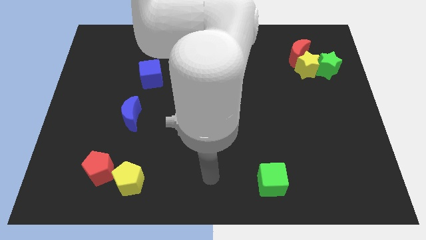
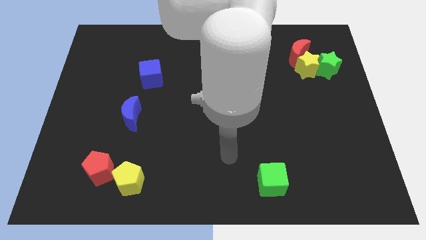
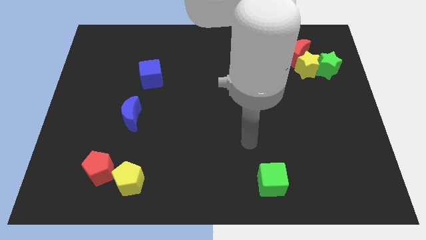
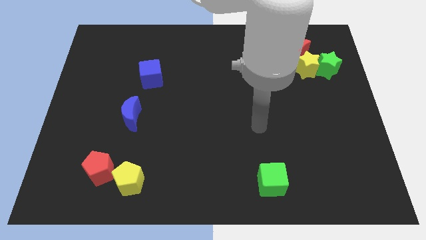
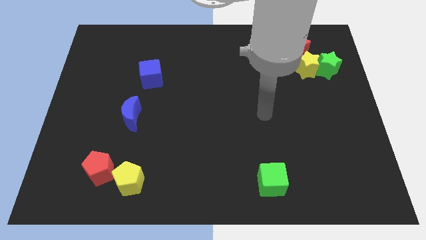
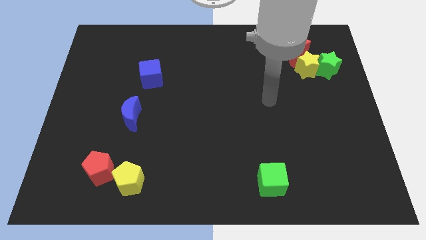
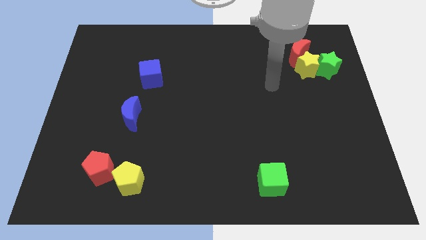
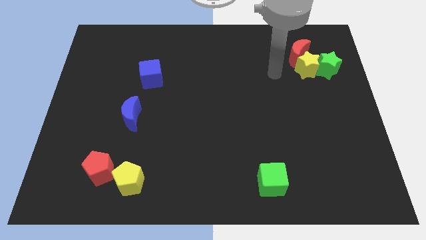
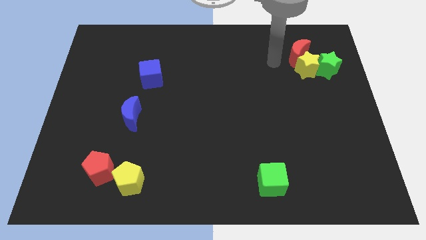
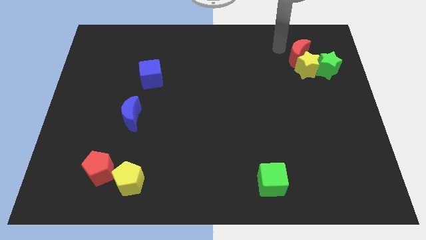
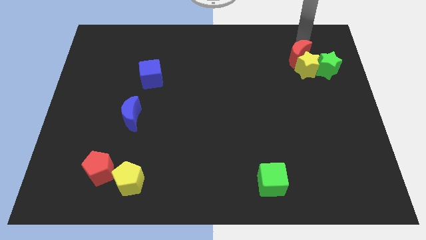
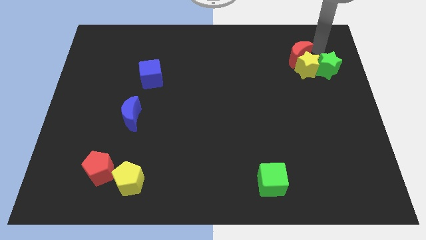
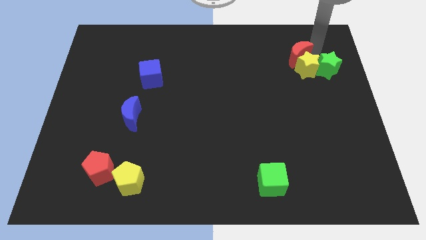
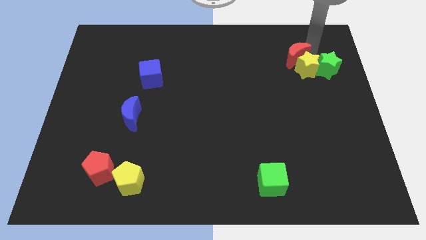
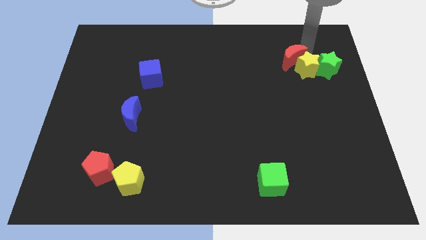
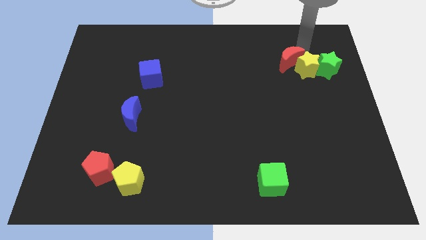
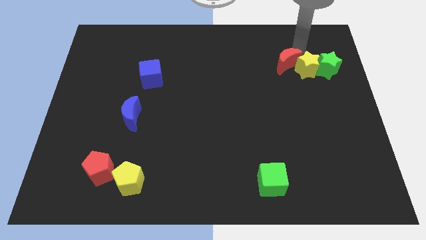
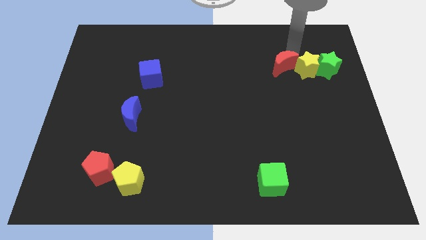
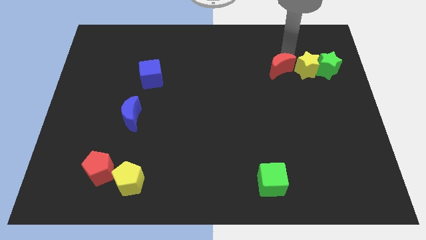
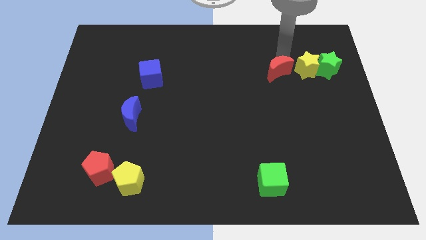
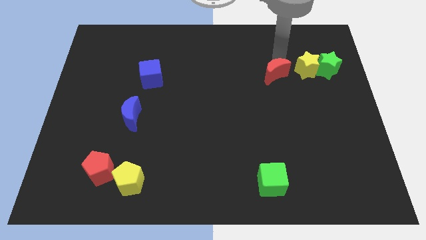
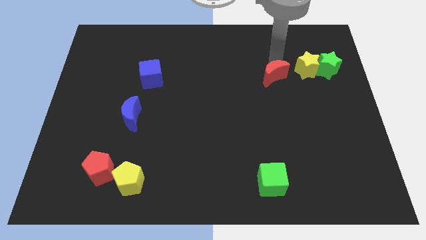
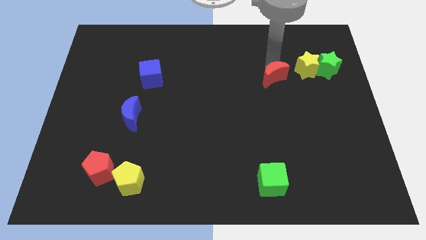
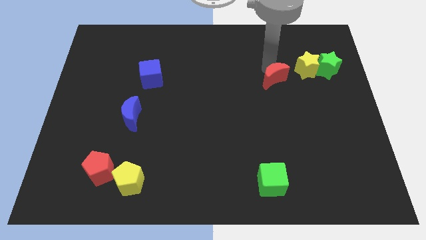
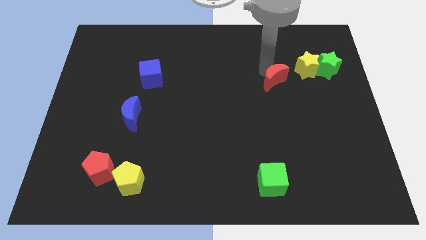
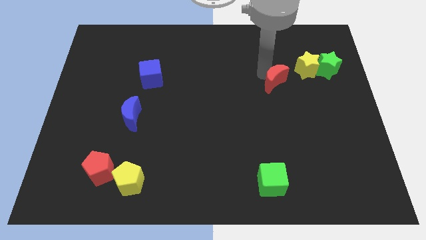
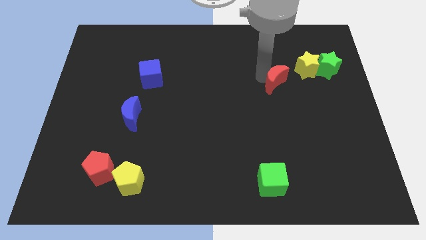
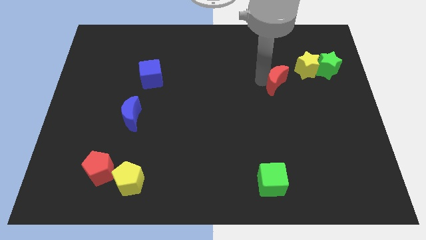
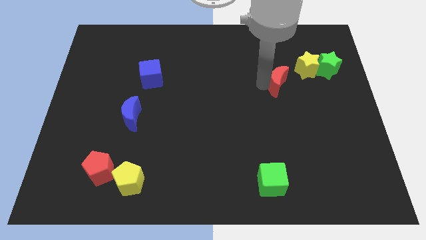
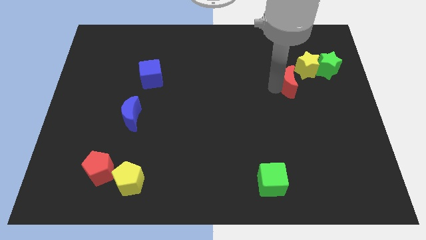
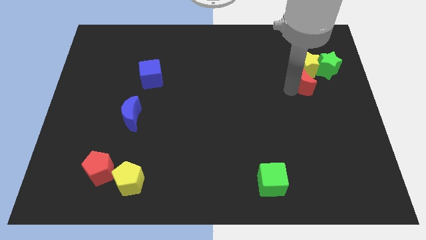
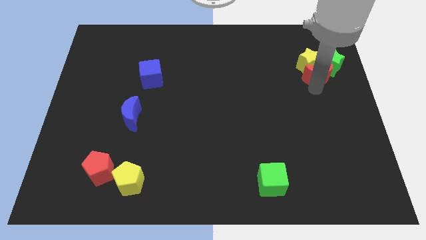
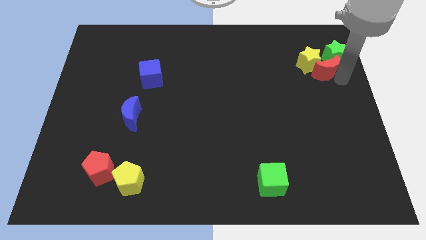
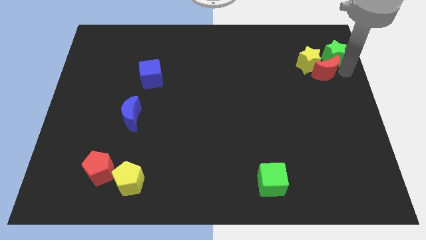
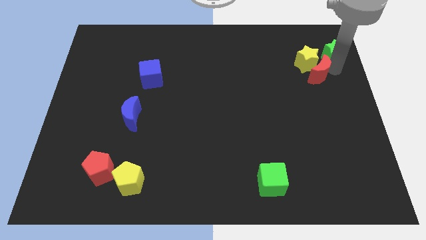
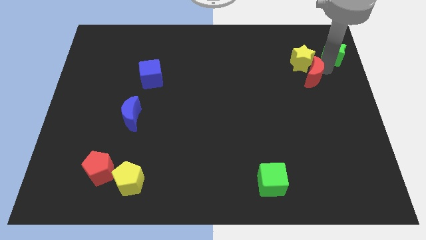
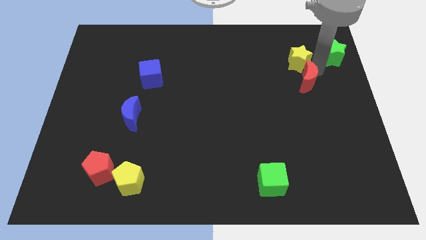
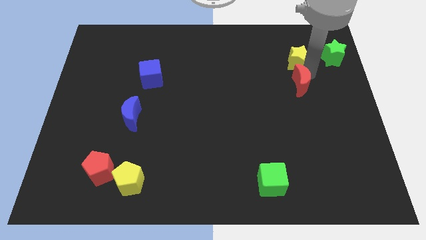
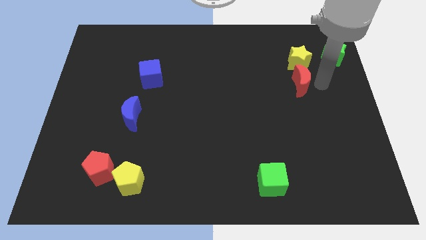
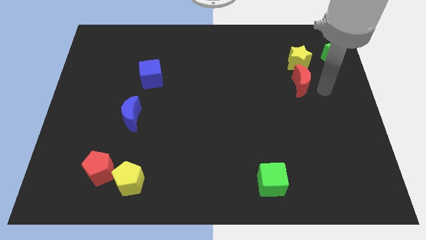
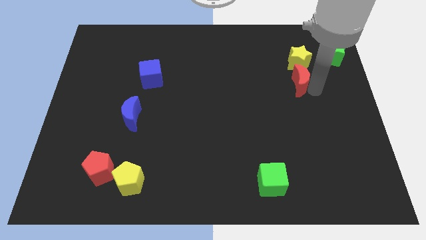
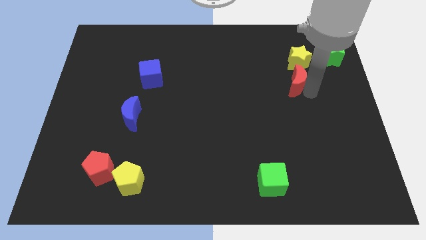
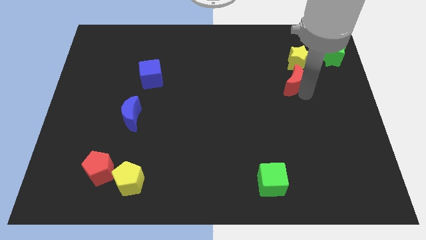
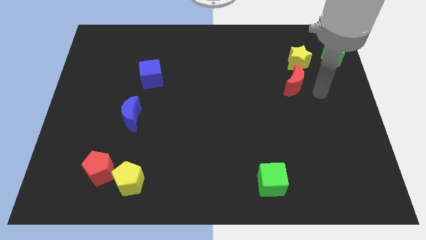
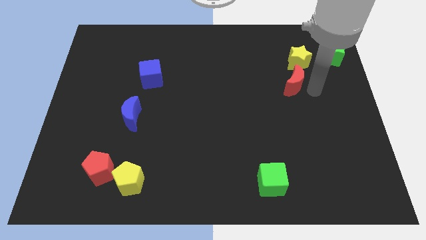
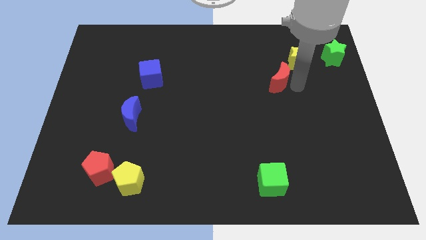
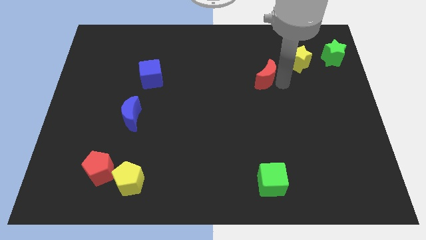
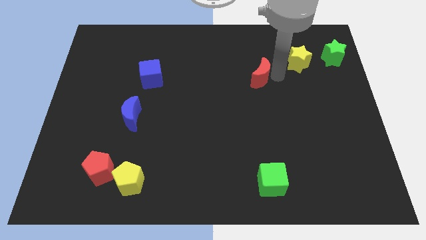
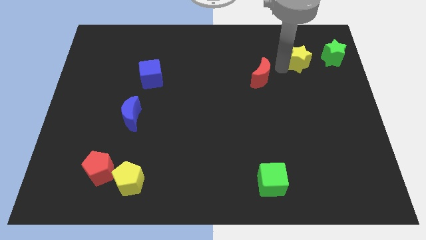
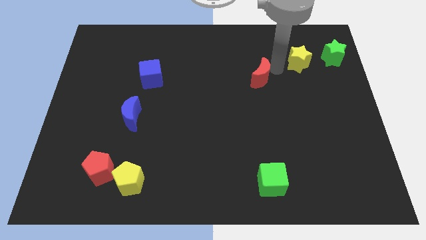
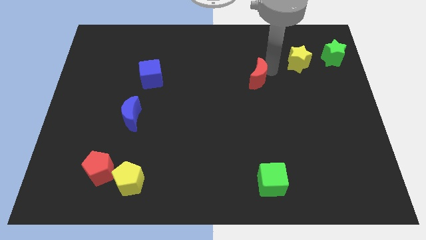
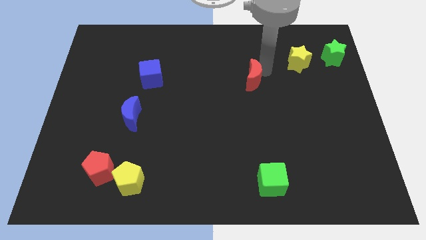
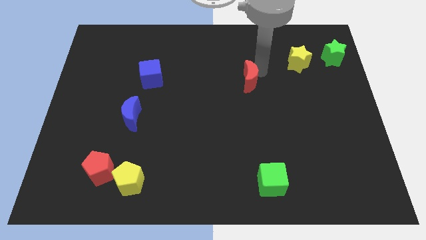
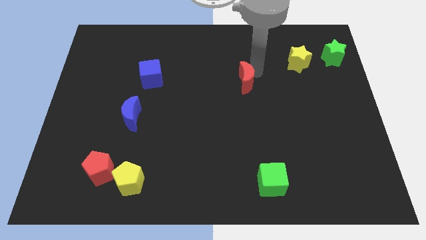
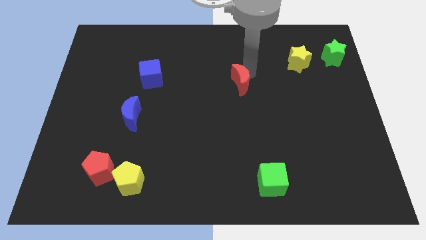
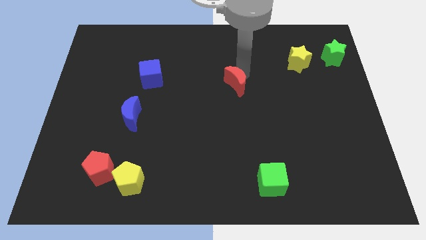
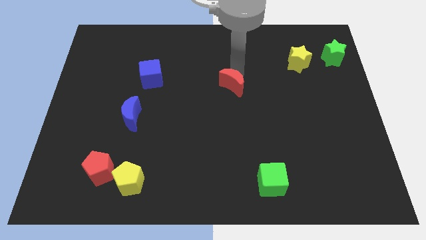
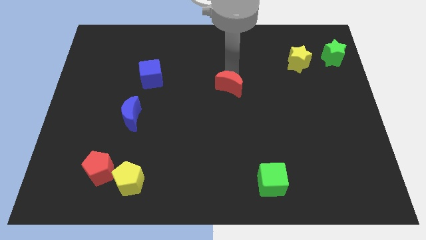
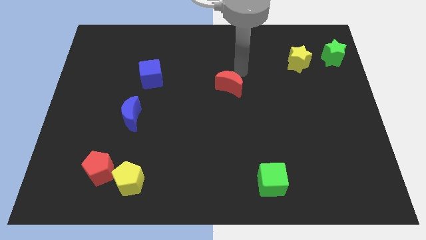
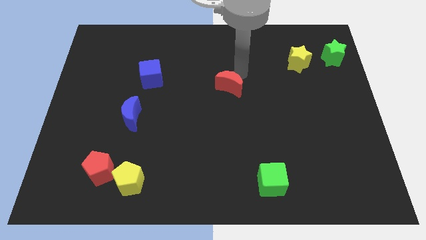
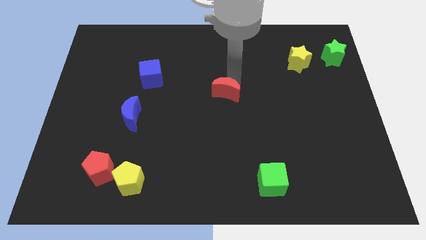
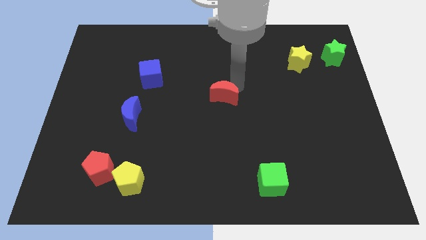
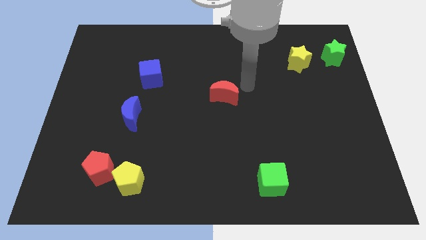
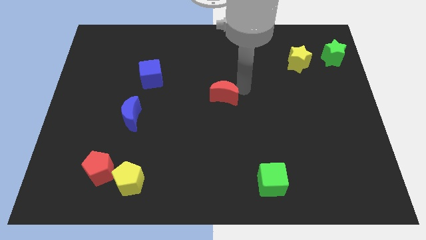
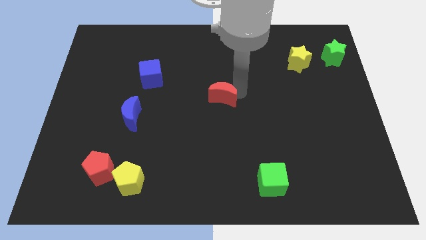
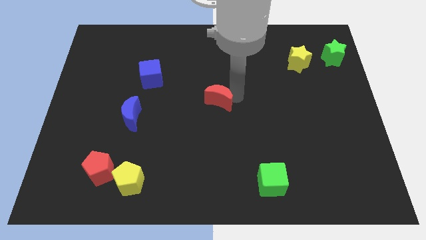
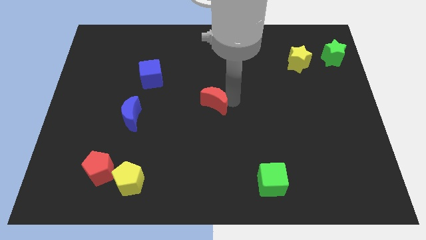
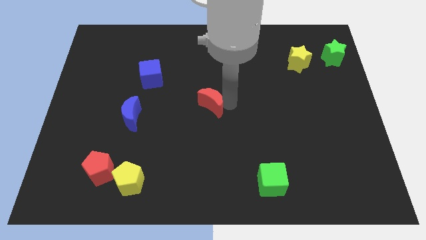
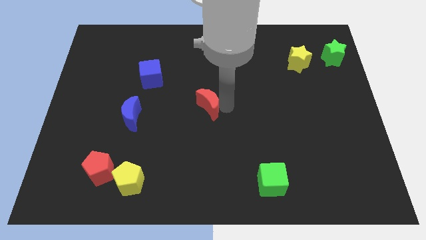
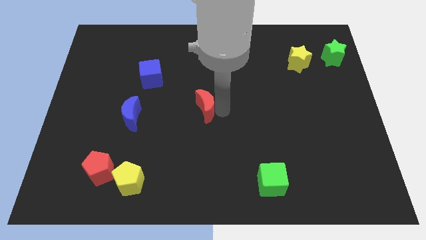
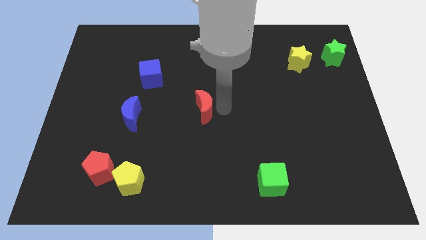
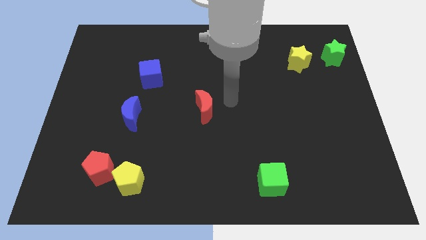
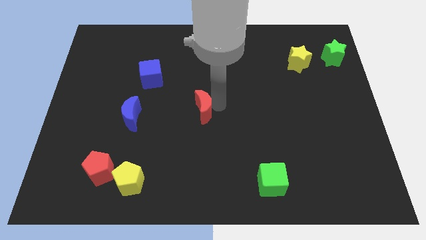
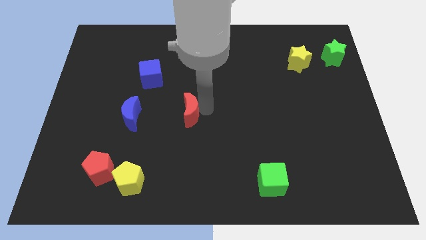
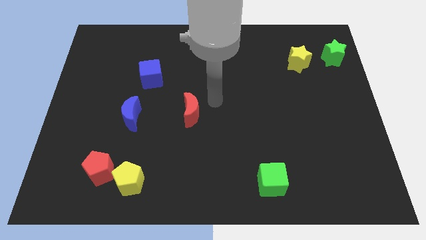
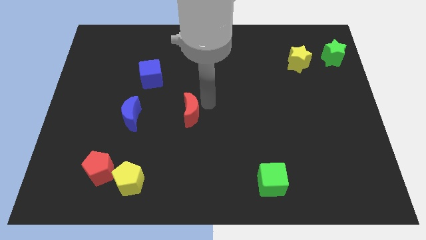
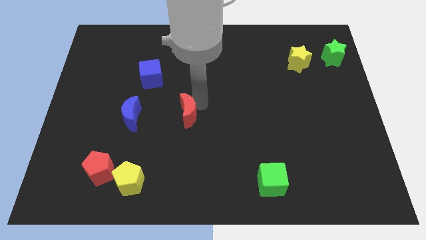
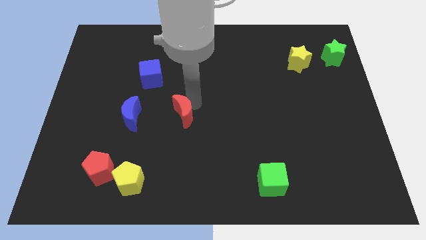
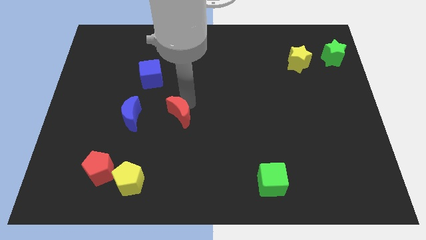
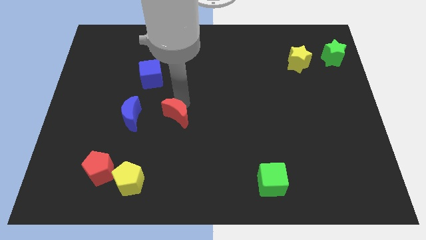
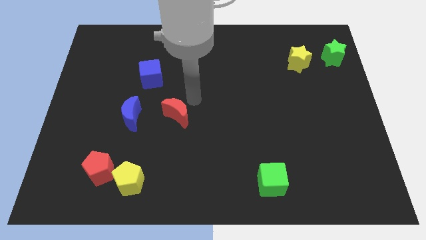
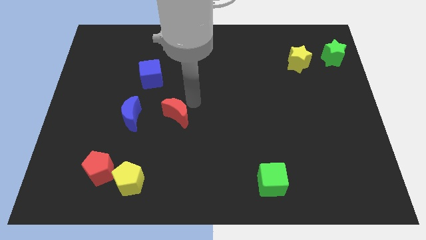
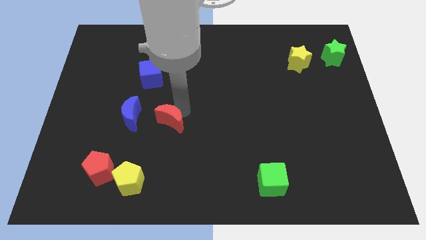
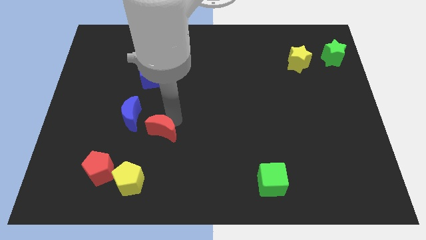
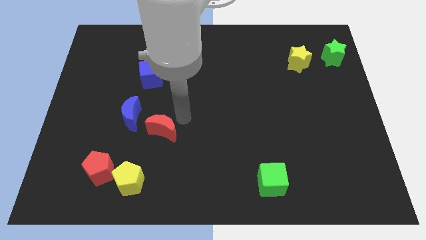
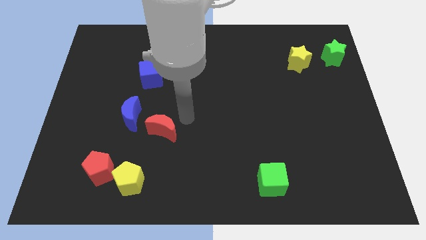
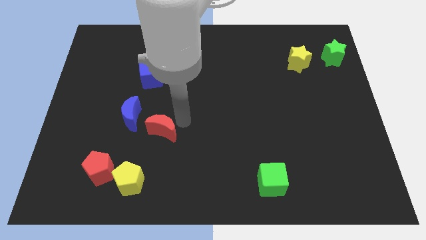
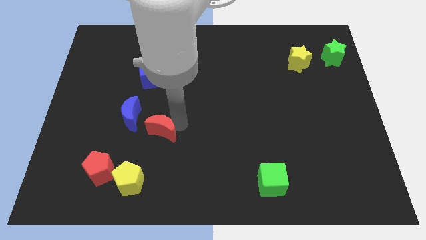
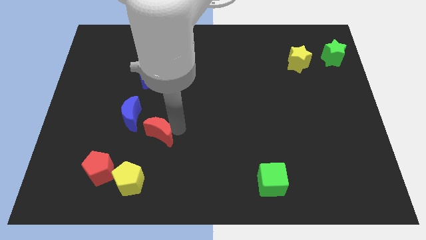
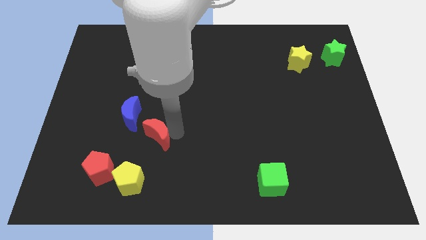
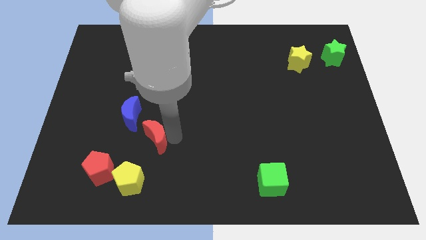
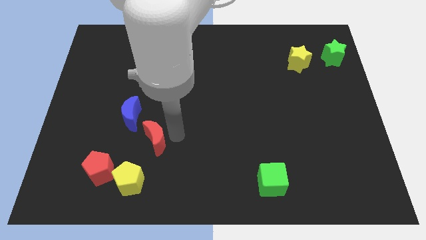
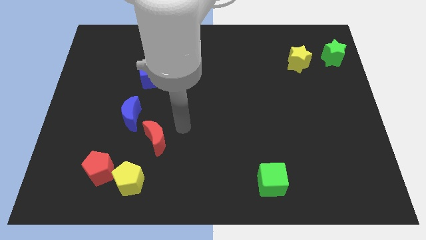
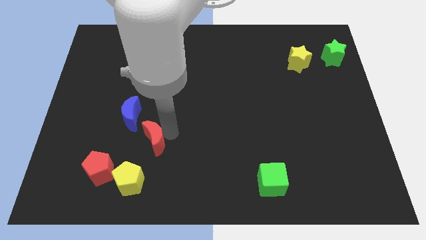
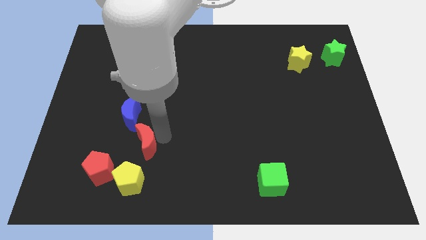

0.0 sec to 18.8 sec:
put the red moon below the blue moon
